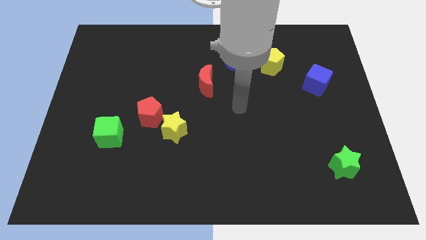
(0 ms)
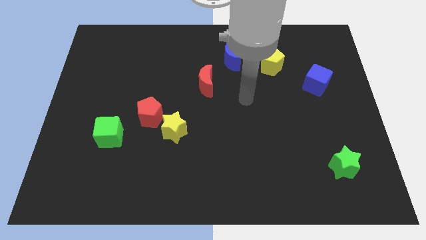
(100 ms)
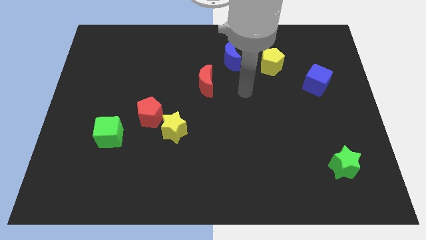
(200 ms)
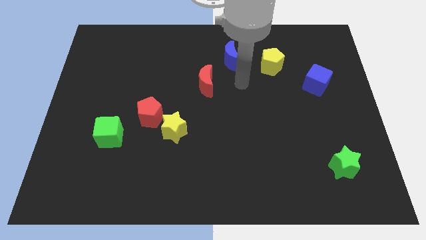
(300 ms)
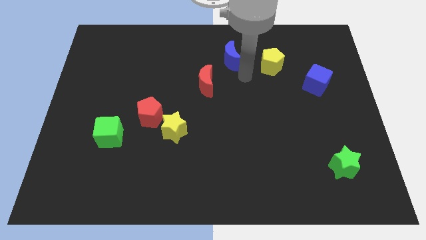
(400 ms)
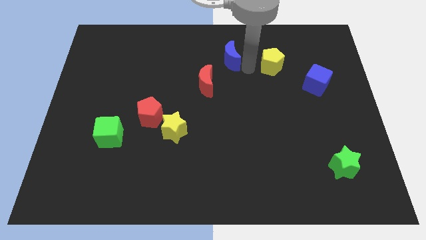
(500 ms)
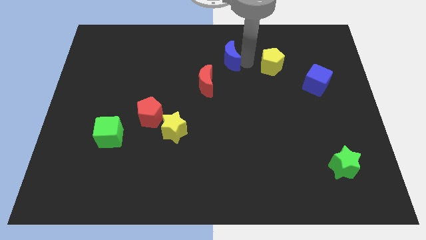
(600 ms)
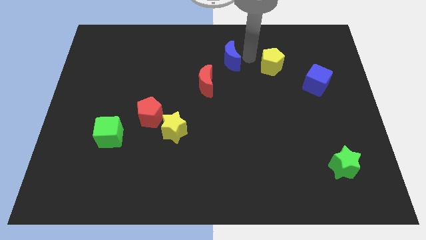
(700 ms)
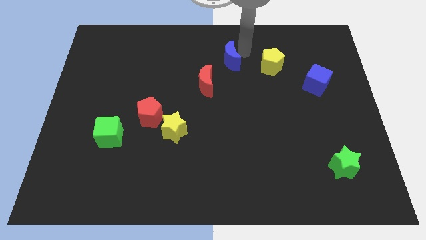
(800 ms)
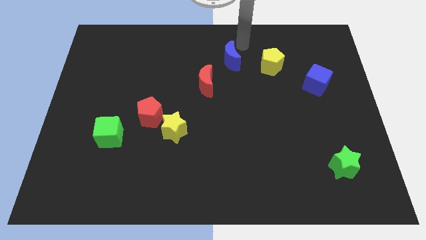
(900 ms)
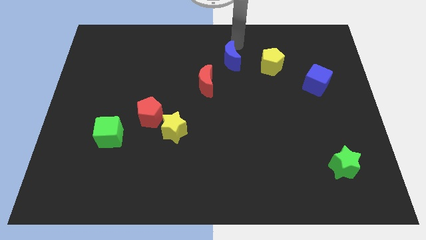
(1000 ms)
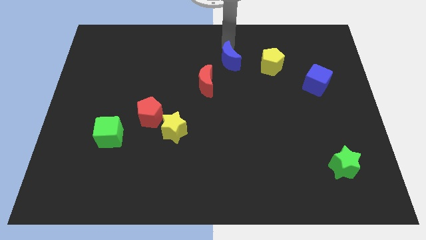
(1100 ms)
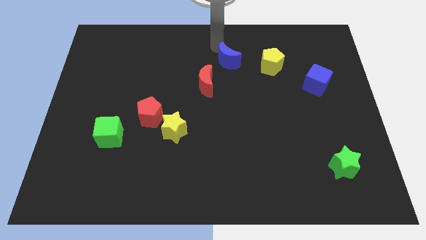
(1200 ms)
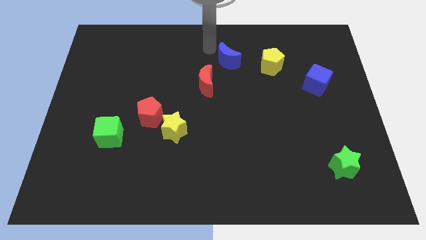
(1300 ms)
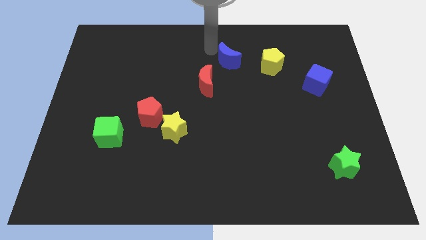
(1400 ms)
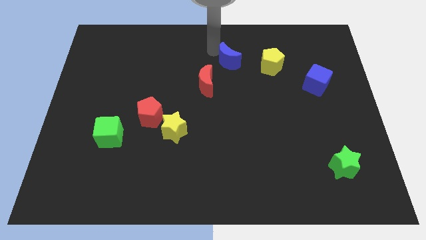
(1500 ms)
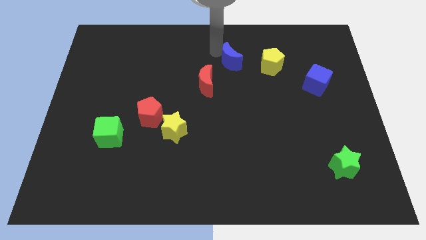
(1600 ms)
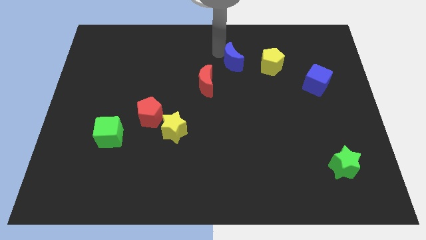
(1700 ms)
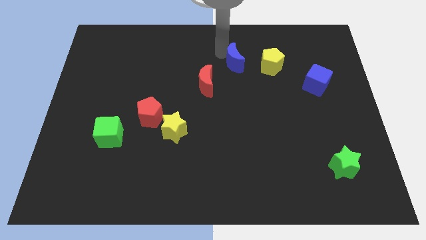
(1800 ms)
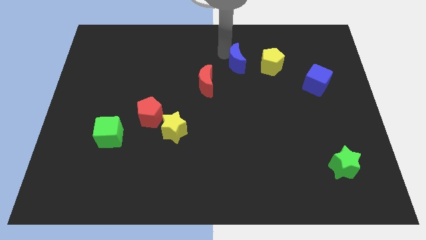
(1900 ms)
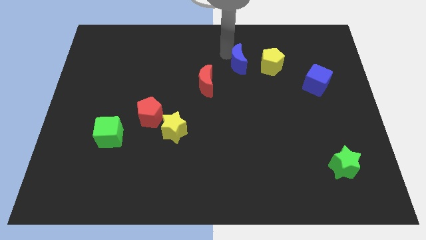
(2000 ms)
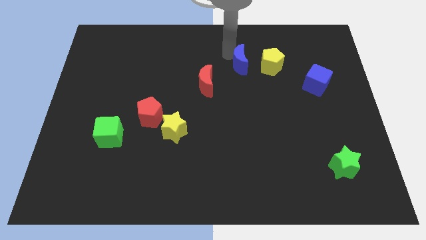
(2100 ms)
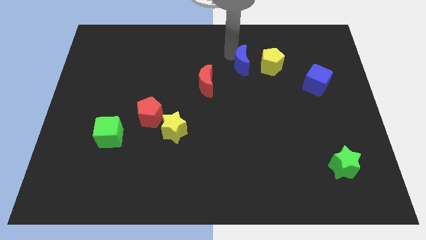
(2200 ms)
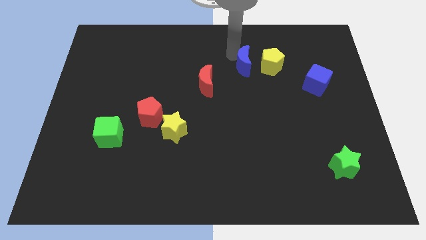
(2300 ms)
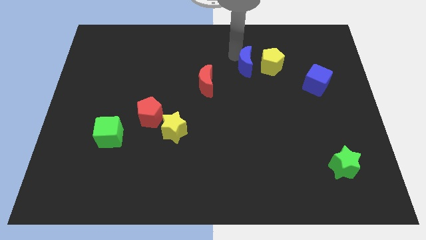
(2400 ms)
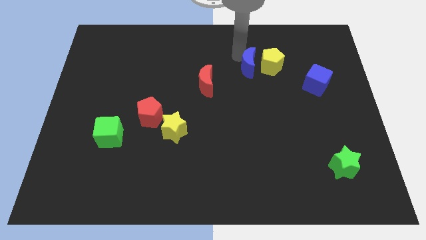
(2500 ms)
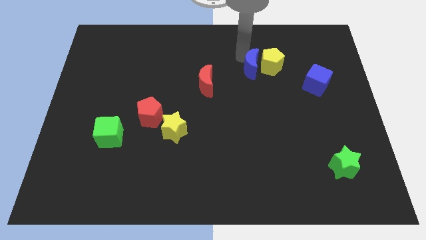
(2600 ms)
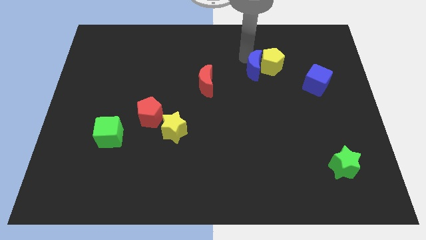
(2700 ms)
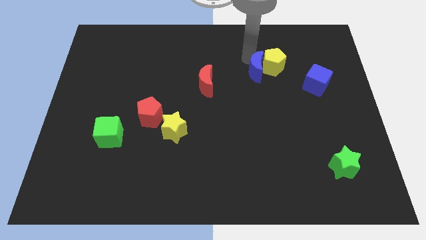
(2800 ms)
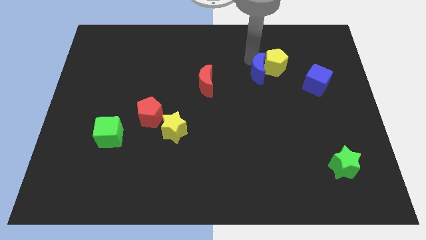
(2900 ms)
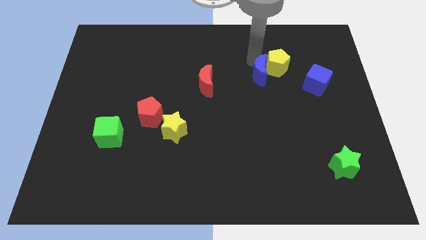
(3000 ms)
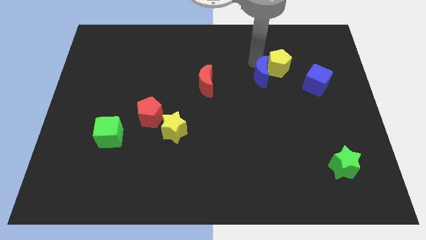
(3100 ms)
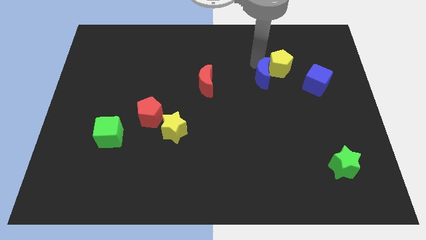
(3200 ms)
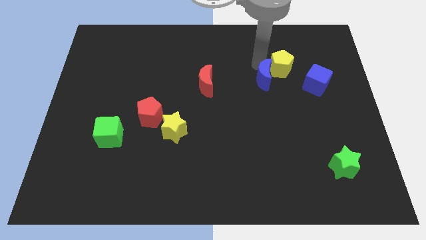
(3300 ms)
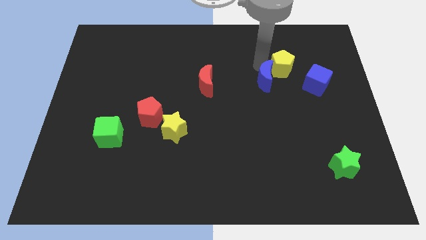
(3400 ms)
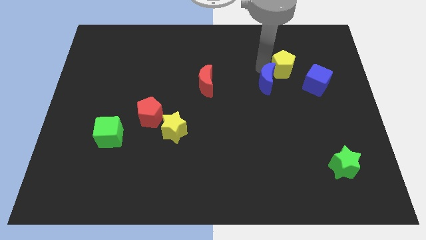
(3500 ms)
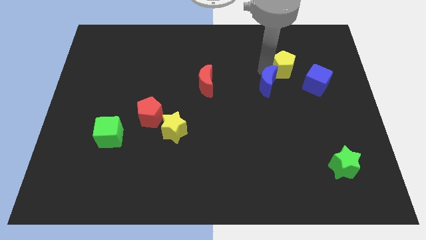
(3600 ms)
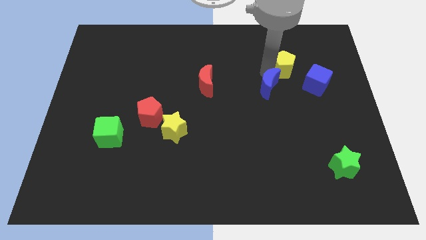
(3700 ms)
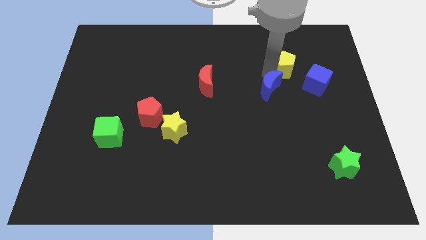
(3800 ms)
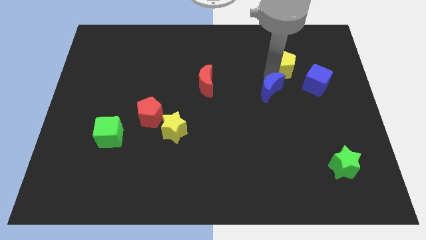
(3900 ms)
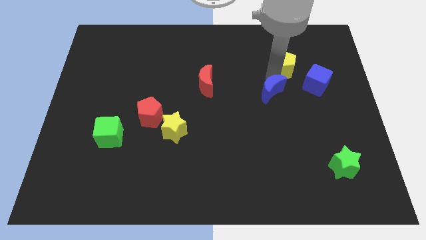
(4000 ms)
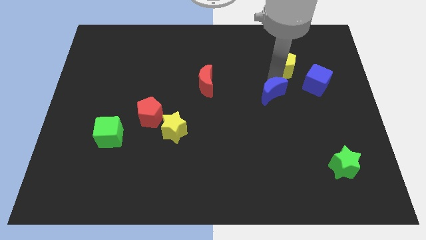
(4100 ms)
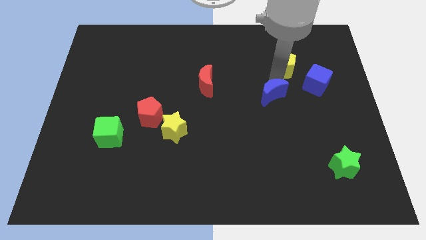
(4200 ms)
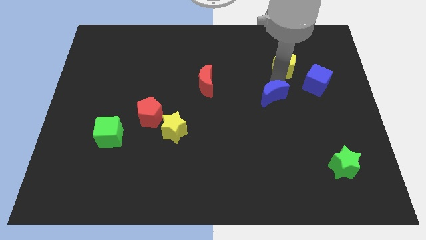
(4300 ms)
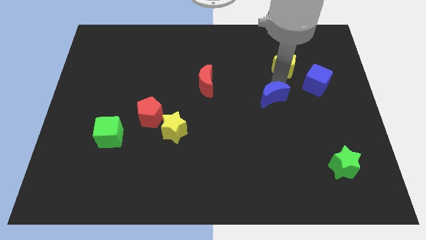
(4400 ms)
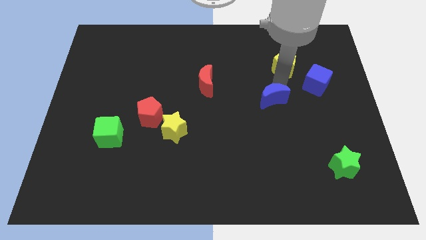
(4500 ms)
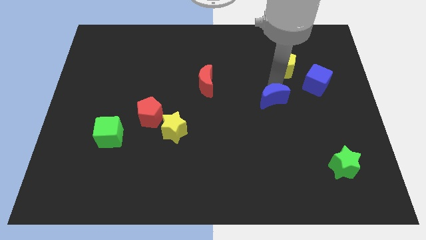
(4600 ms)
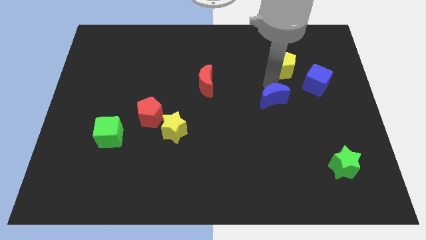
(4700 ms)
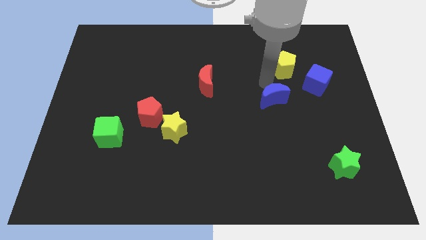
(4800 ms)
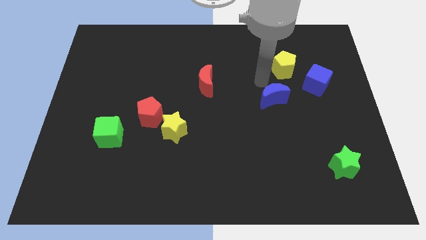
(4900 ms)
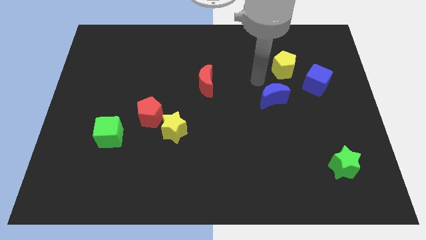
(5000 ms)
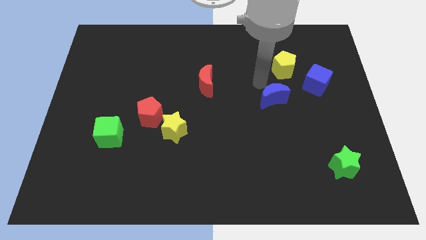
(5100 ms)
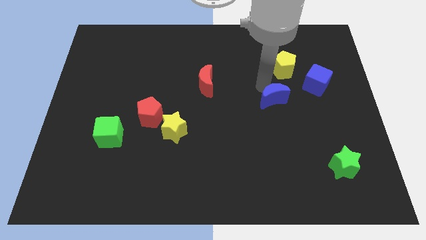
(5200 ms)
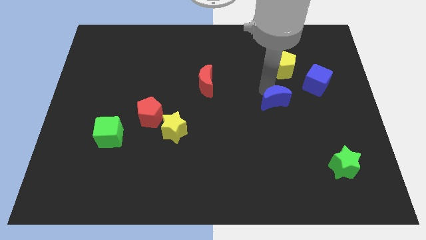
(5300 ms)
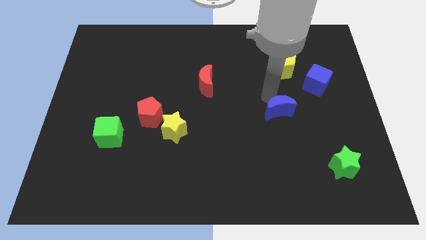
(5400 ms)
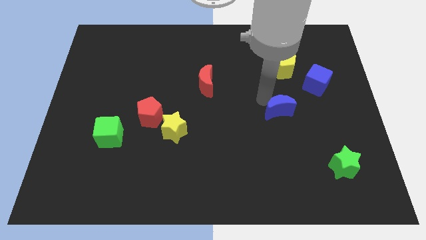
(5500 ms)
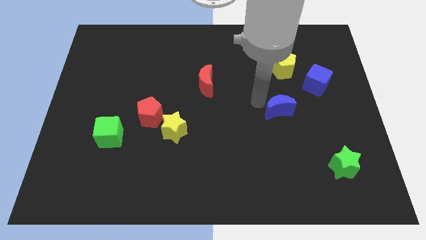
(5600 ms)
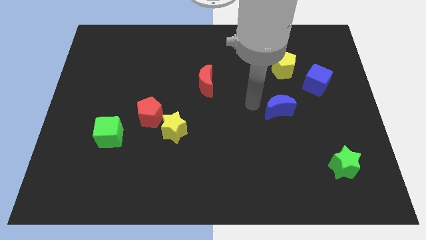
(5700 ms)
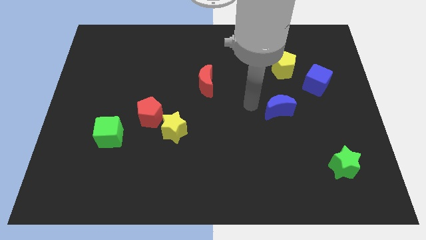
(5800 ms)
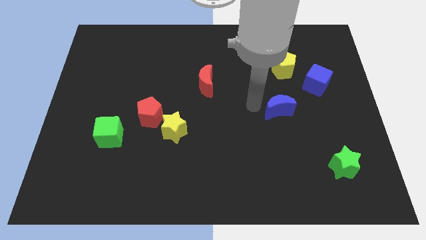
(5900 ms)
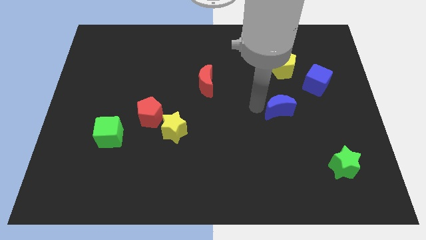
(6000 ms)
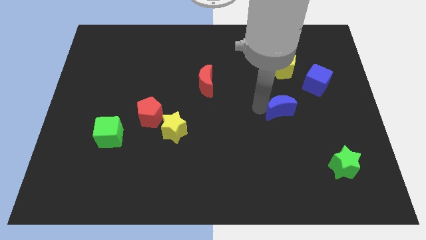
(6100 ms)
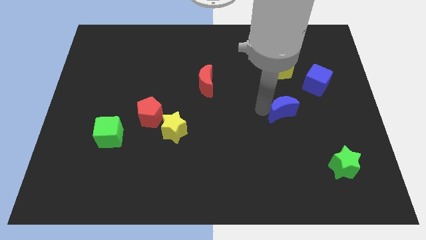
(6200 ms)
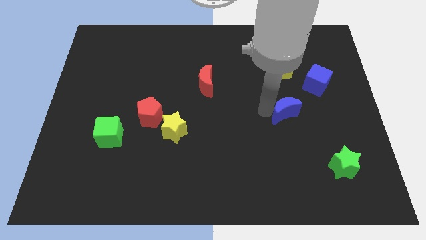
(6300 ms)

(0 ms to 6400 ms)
slide the blue moon down and right
